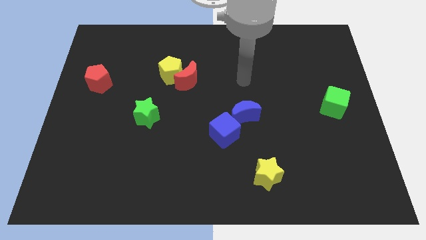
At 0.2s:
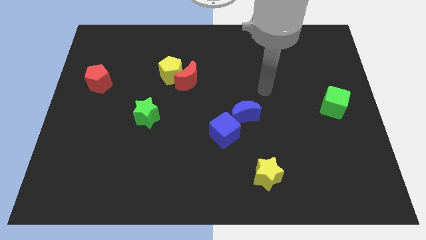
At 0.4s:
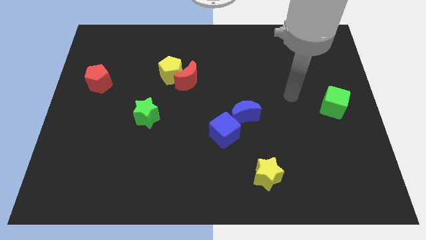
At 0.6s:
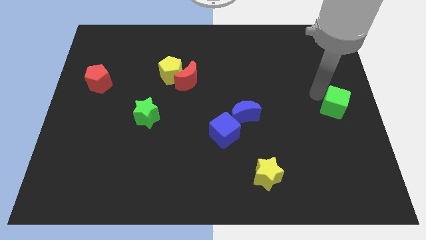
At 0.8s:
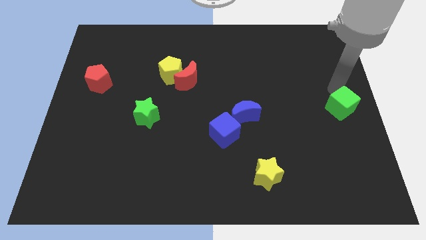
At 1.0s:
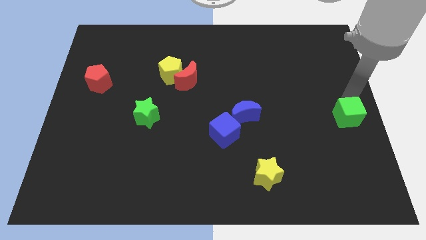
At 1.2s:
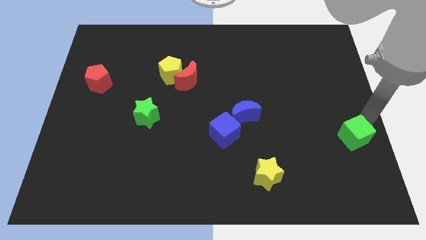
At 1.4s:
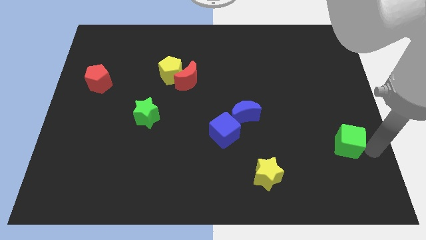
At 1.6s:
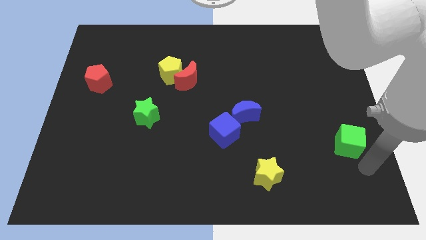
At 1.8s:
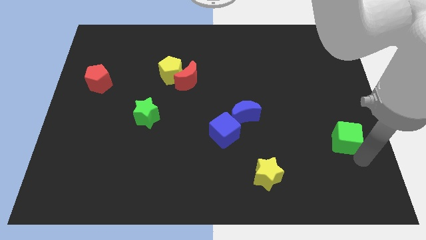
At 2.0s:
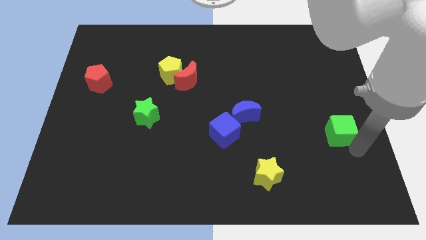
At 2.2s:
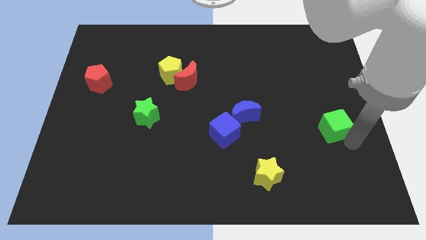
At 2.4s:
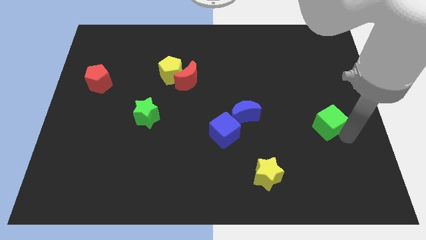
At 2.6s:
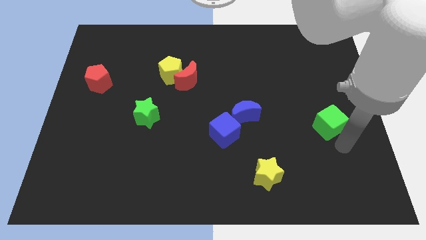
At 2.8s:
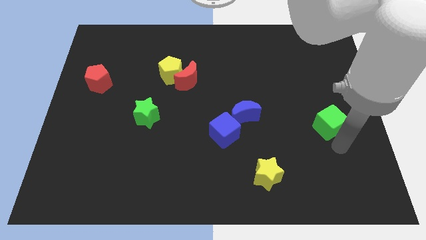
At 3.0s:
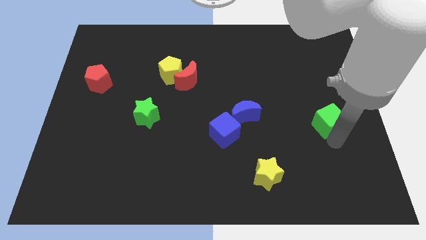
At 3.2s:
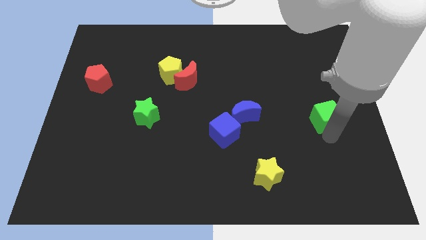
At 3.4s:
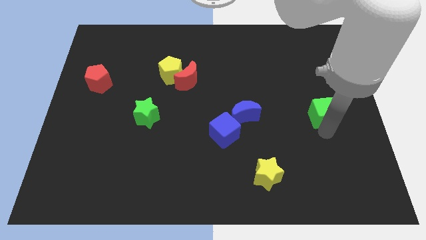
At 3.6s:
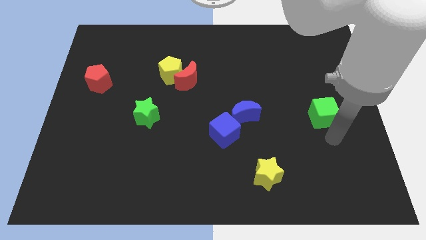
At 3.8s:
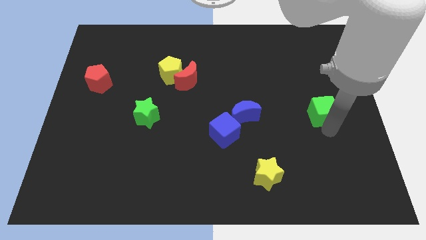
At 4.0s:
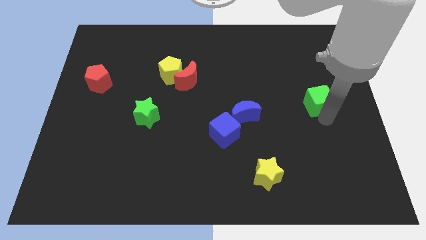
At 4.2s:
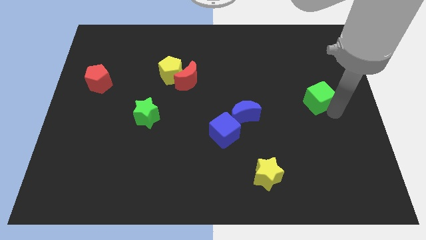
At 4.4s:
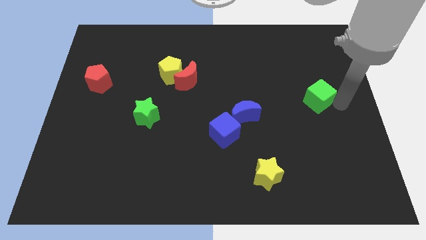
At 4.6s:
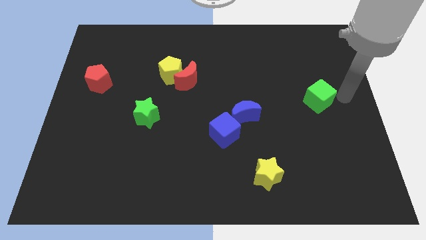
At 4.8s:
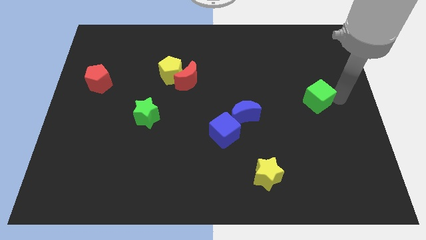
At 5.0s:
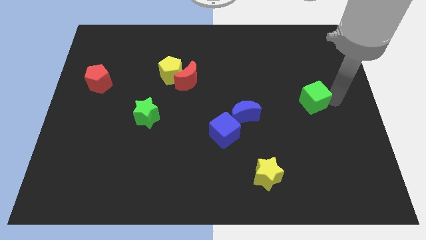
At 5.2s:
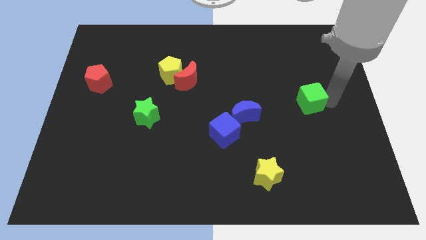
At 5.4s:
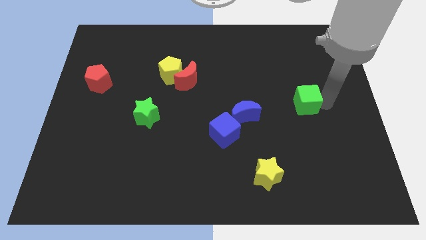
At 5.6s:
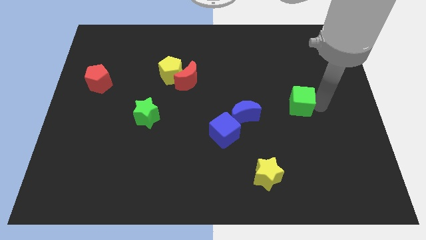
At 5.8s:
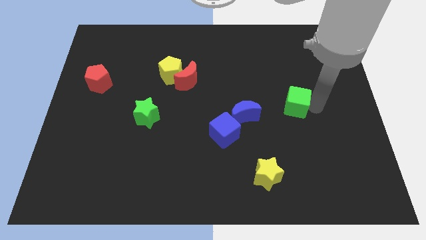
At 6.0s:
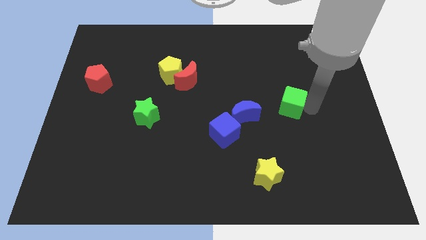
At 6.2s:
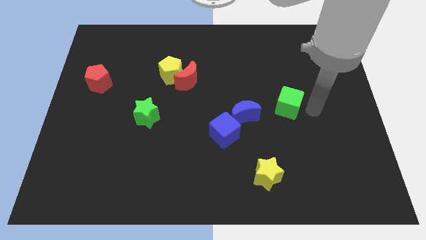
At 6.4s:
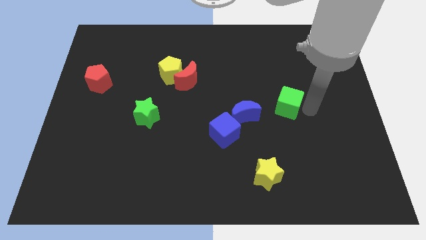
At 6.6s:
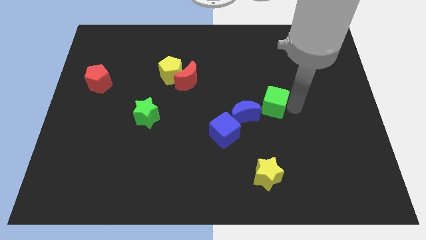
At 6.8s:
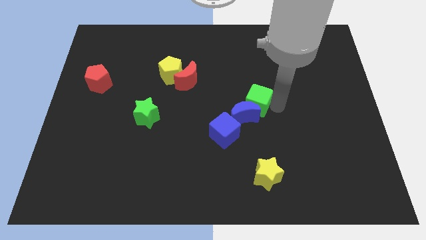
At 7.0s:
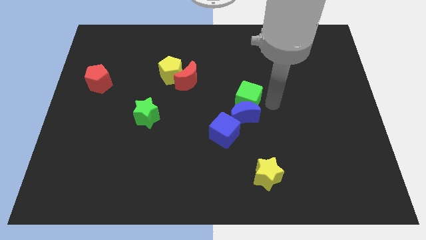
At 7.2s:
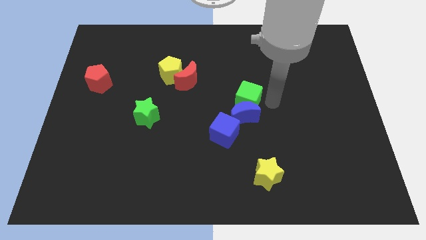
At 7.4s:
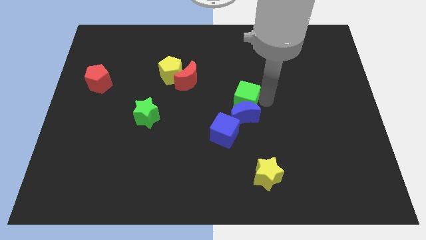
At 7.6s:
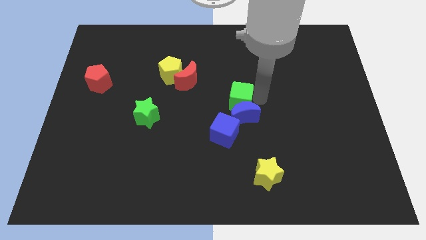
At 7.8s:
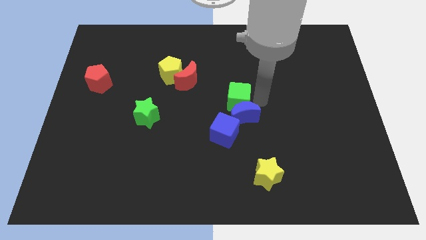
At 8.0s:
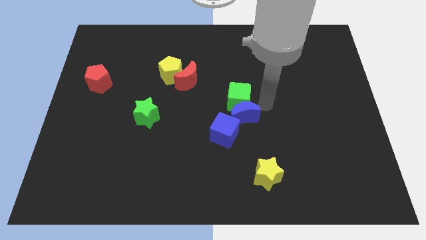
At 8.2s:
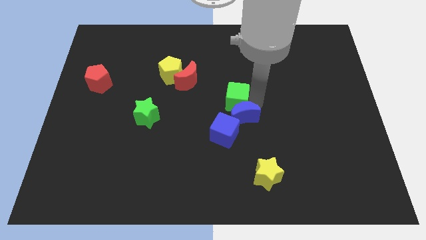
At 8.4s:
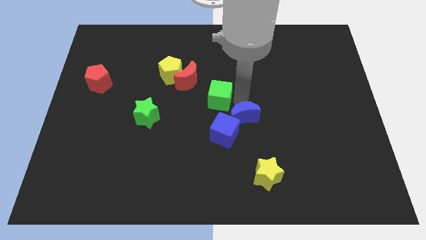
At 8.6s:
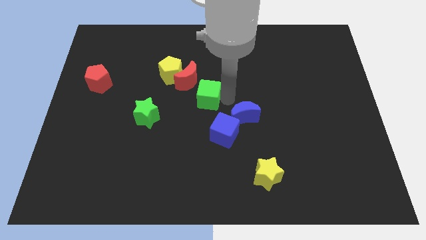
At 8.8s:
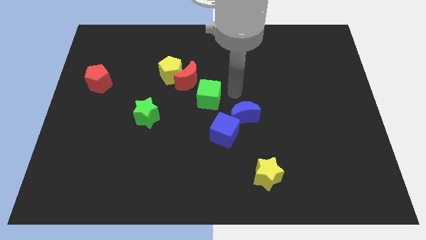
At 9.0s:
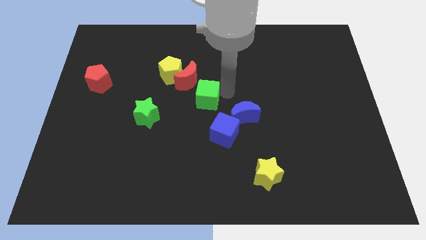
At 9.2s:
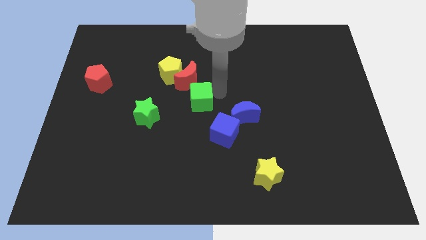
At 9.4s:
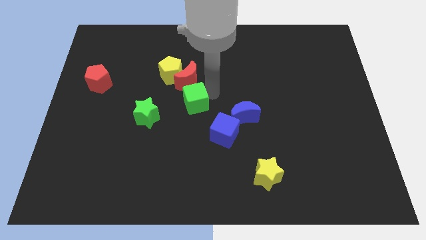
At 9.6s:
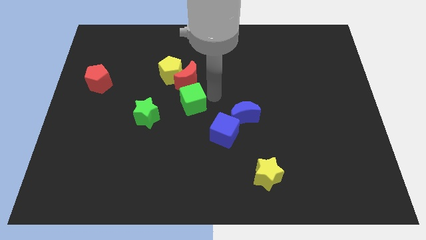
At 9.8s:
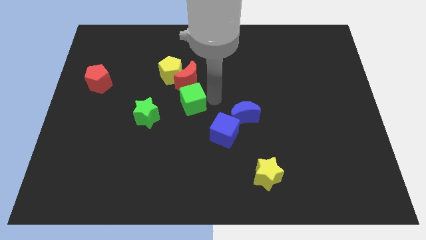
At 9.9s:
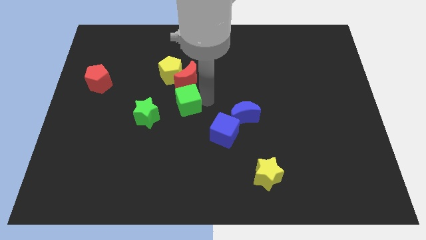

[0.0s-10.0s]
push the green cube to the bottom side of the yellow pentagon

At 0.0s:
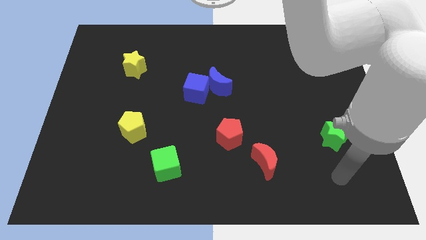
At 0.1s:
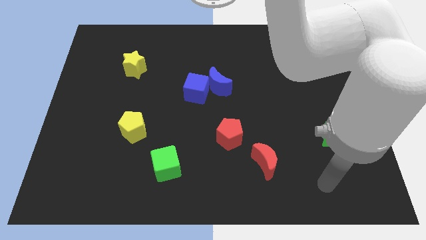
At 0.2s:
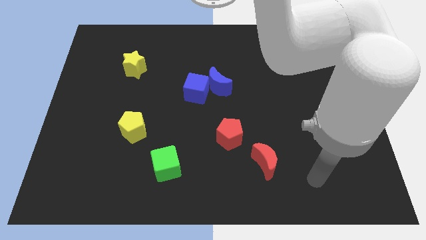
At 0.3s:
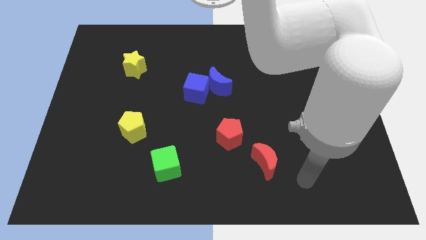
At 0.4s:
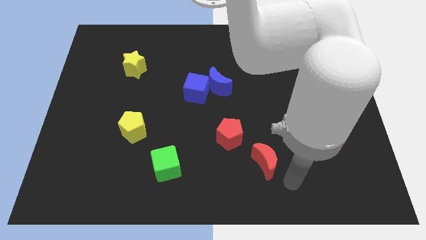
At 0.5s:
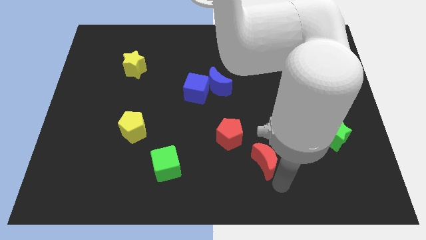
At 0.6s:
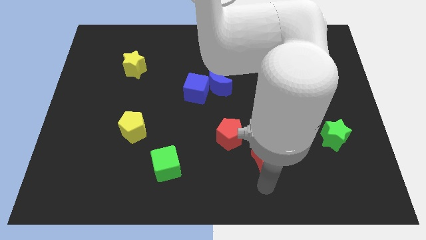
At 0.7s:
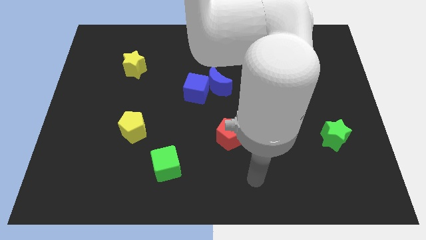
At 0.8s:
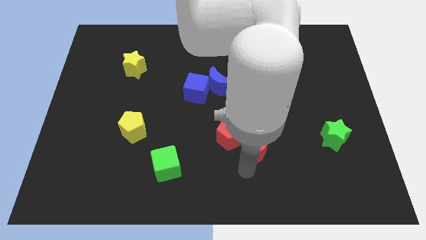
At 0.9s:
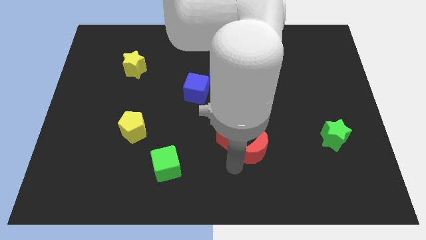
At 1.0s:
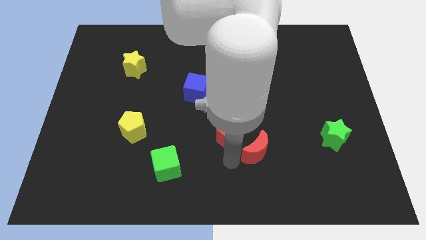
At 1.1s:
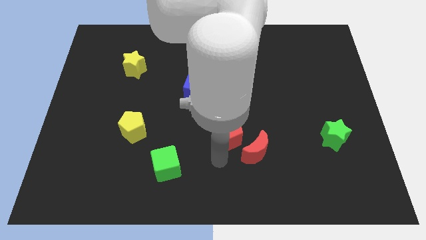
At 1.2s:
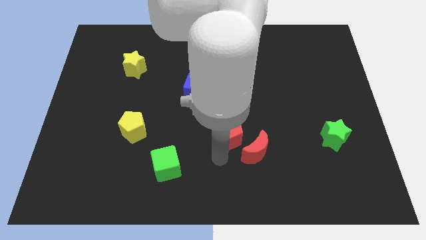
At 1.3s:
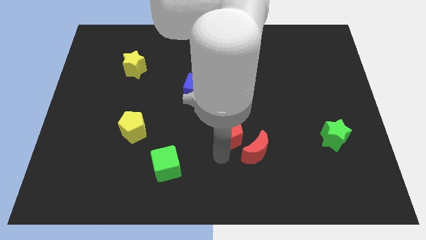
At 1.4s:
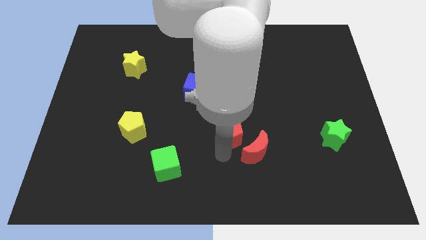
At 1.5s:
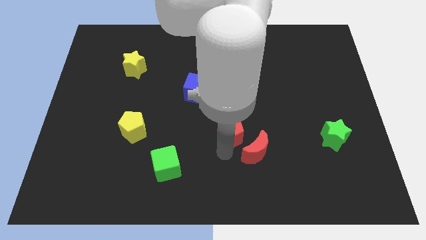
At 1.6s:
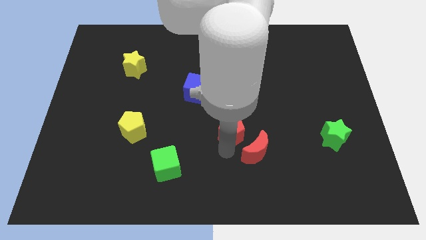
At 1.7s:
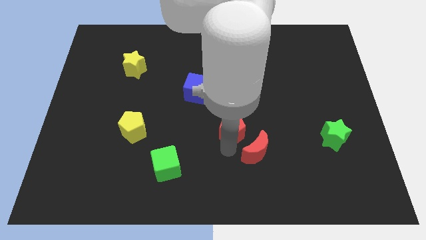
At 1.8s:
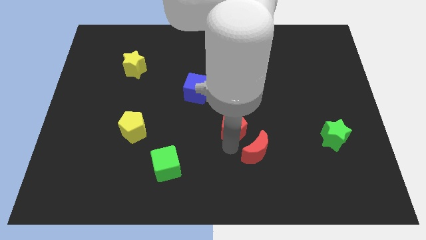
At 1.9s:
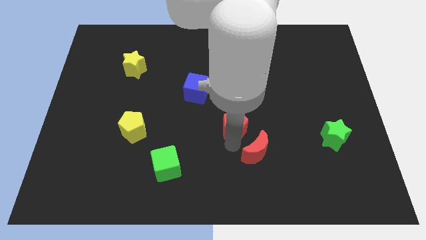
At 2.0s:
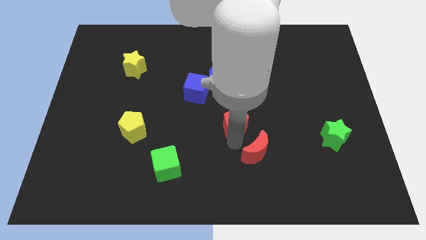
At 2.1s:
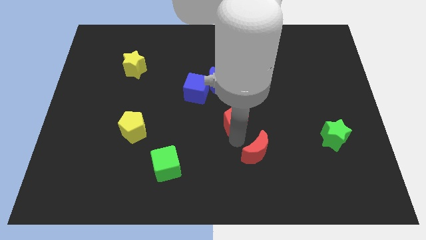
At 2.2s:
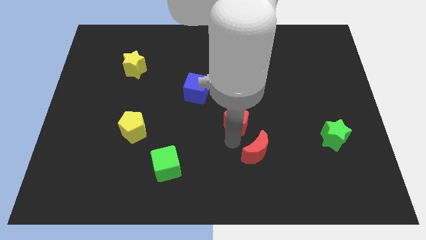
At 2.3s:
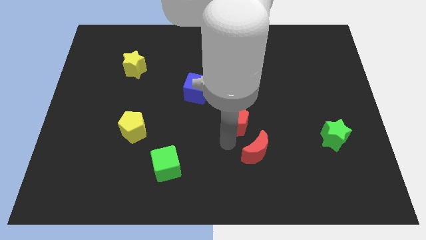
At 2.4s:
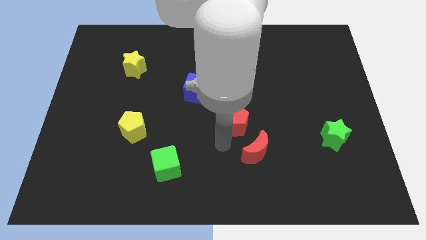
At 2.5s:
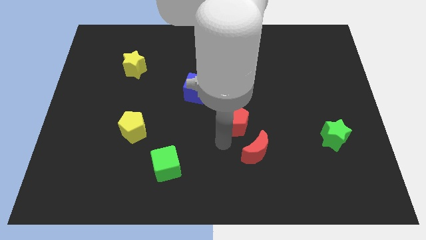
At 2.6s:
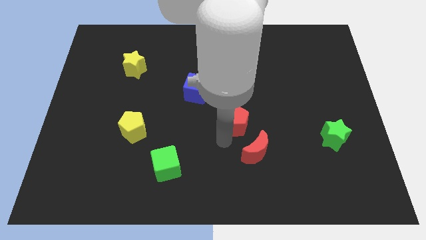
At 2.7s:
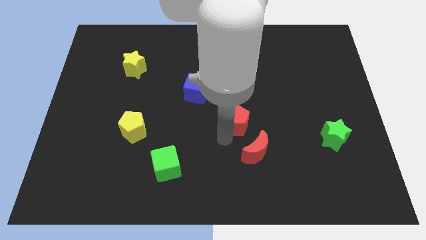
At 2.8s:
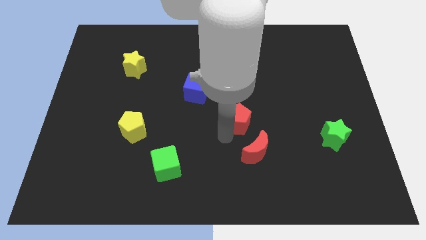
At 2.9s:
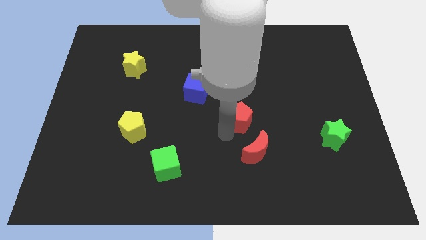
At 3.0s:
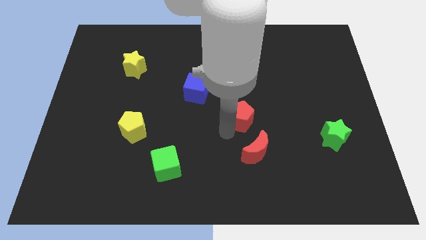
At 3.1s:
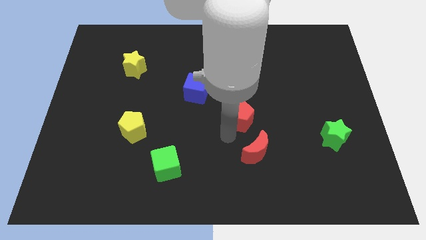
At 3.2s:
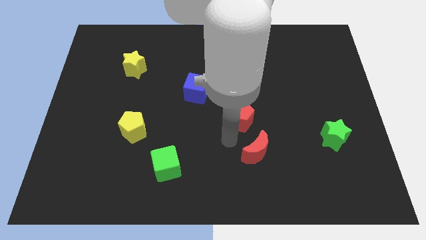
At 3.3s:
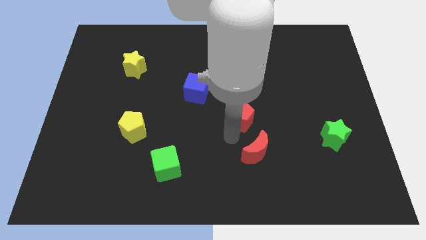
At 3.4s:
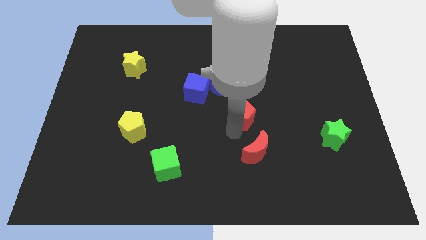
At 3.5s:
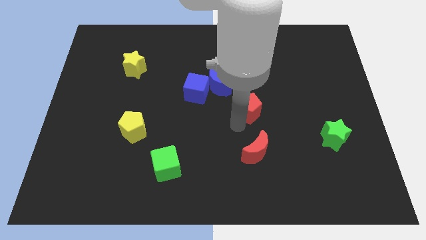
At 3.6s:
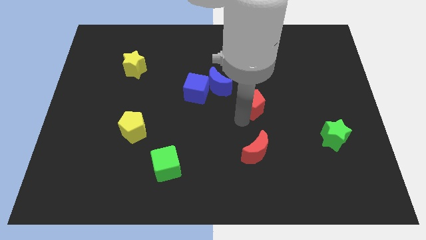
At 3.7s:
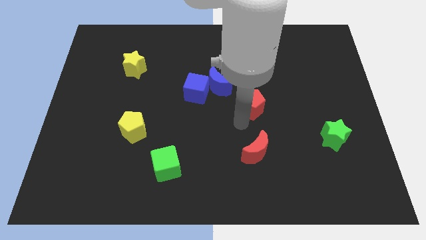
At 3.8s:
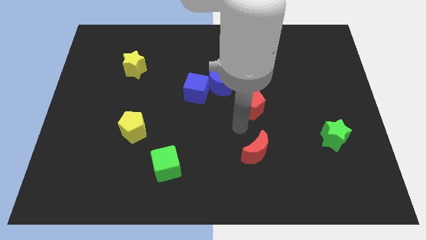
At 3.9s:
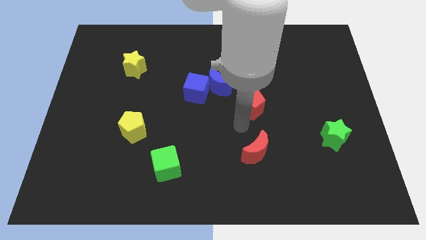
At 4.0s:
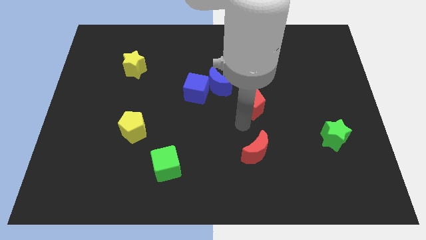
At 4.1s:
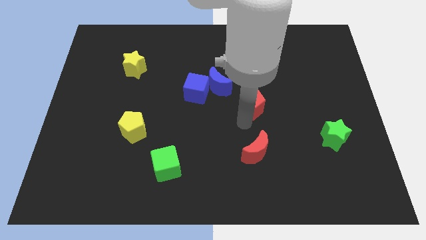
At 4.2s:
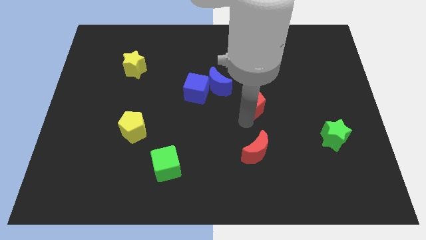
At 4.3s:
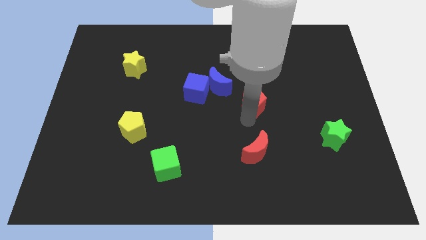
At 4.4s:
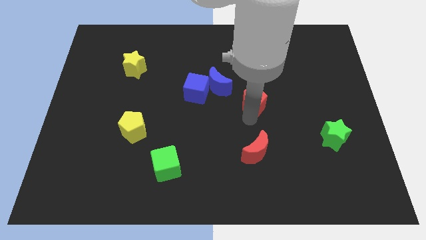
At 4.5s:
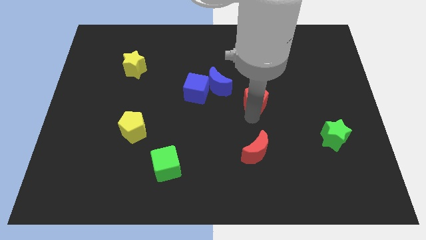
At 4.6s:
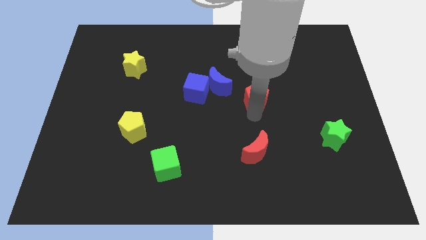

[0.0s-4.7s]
put the red pentagon just right of the blue moon
